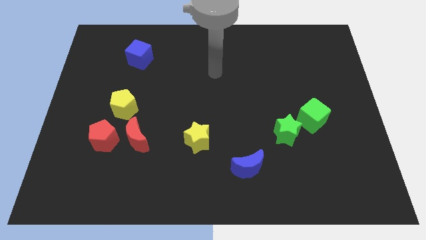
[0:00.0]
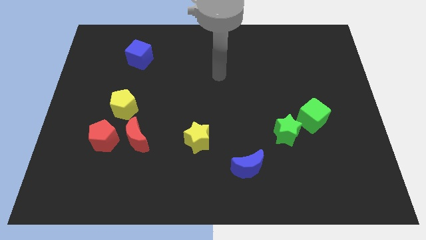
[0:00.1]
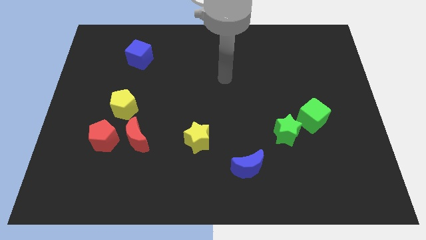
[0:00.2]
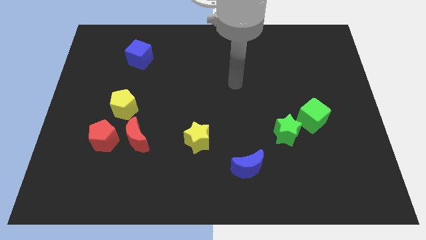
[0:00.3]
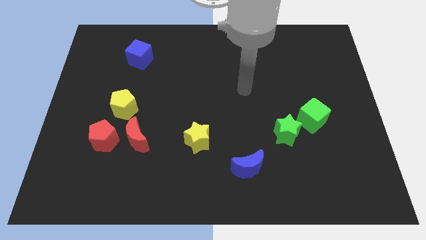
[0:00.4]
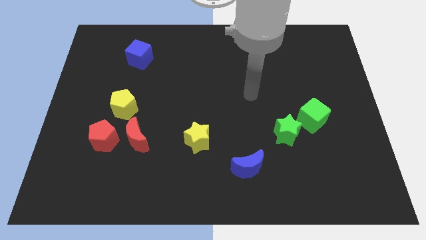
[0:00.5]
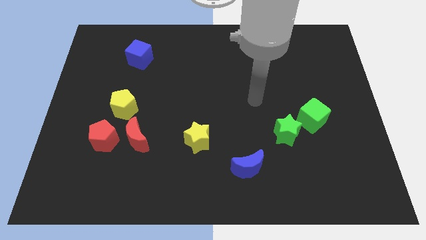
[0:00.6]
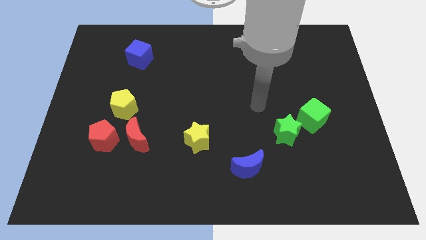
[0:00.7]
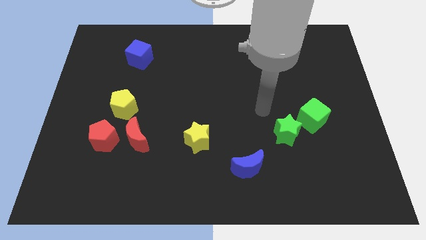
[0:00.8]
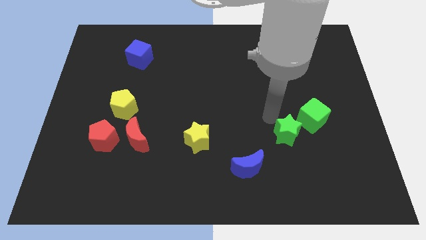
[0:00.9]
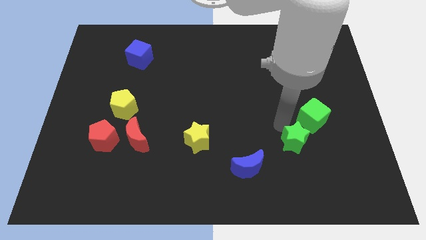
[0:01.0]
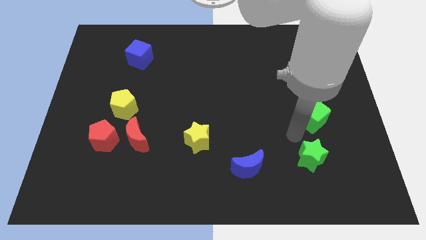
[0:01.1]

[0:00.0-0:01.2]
pull the green cube apart from the green star

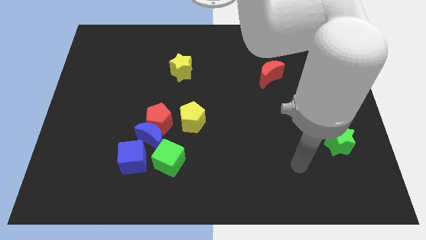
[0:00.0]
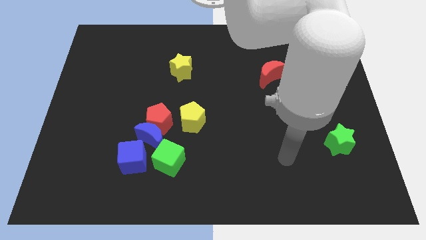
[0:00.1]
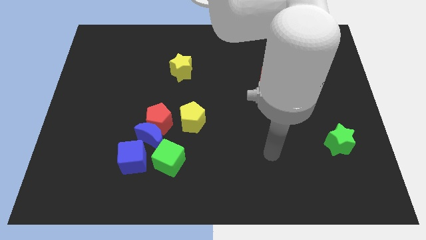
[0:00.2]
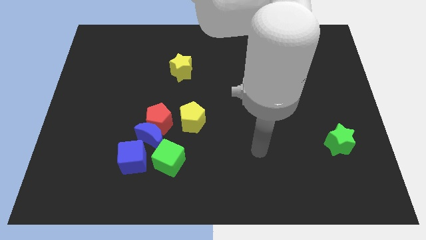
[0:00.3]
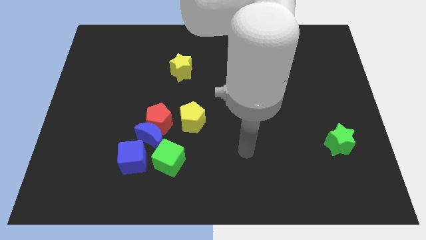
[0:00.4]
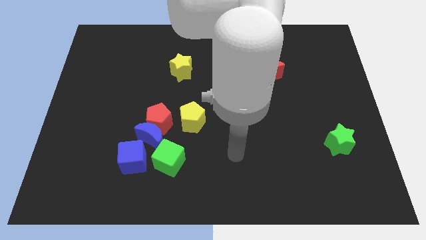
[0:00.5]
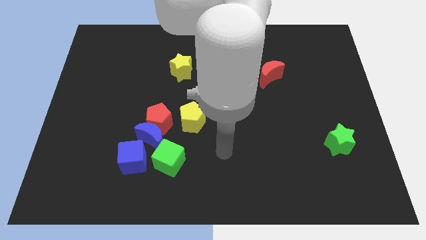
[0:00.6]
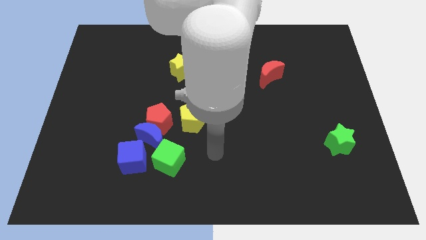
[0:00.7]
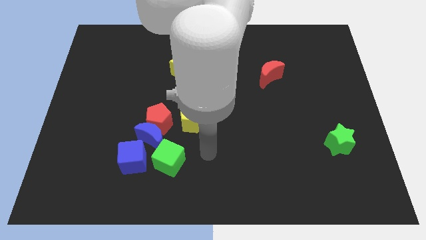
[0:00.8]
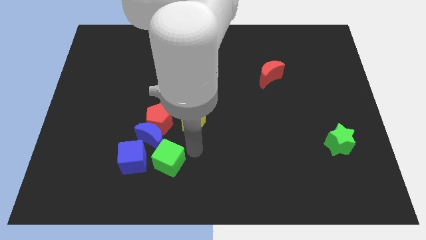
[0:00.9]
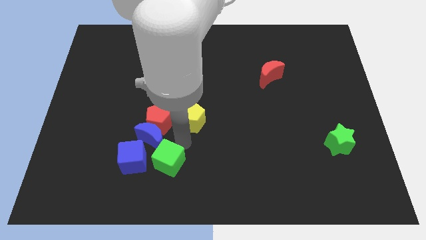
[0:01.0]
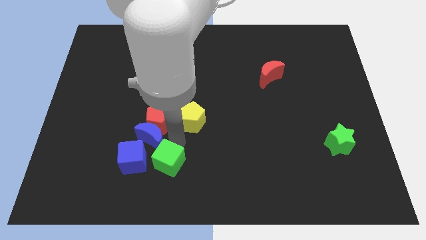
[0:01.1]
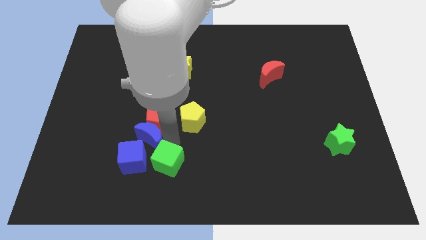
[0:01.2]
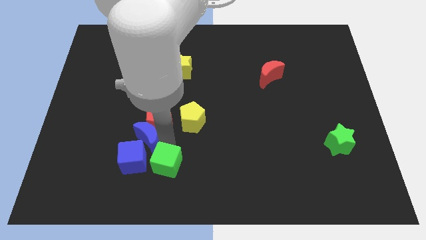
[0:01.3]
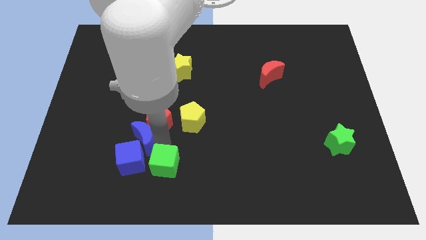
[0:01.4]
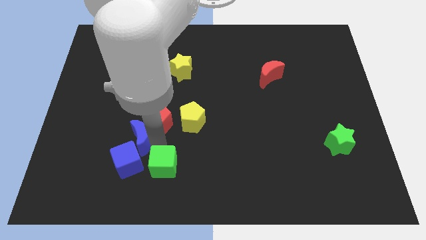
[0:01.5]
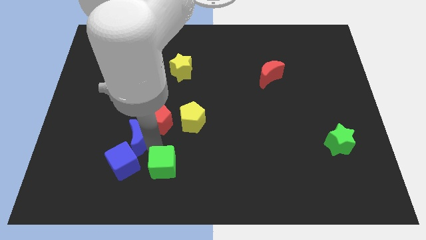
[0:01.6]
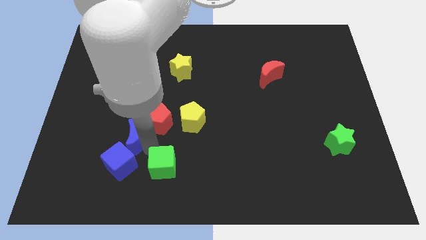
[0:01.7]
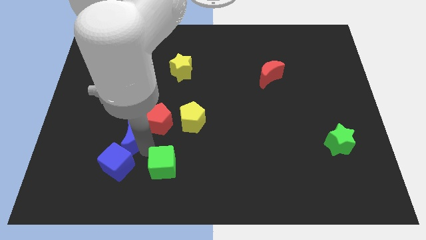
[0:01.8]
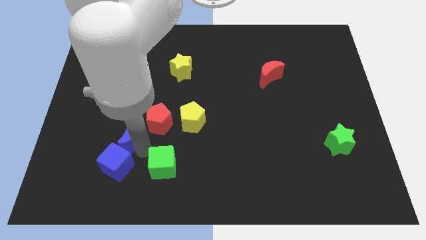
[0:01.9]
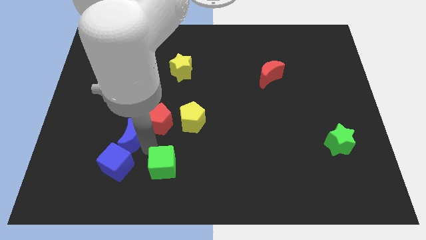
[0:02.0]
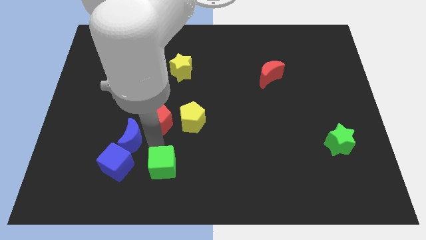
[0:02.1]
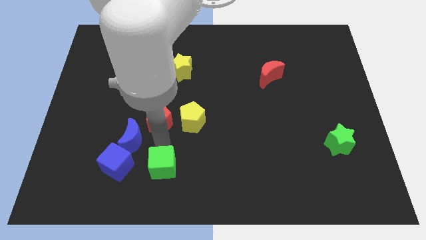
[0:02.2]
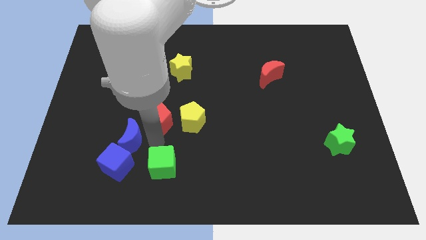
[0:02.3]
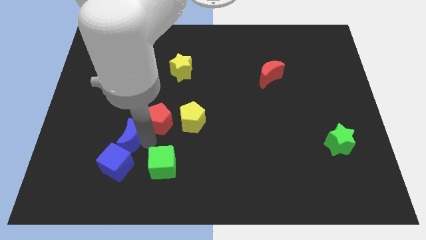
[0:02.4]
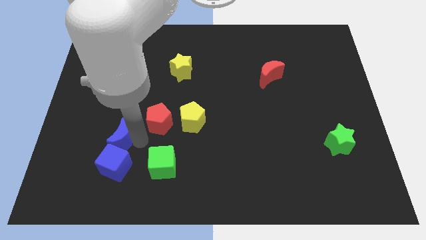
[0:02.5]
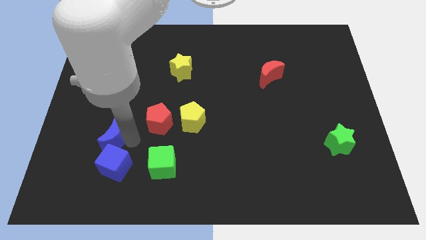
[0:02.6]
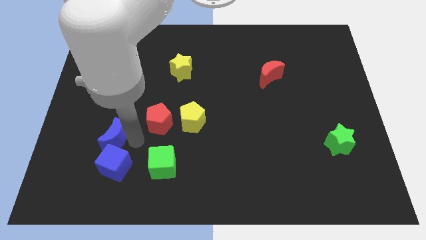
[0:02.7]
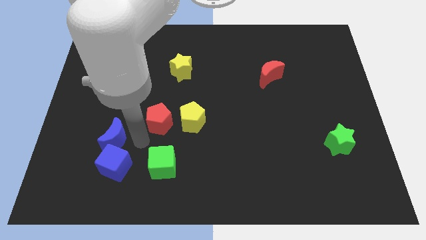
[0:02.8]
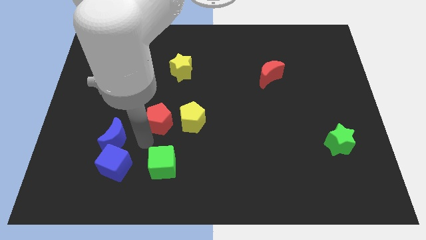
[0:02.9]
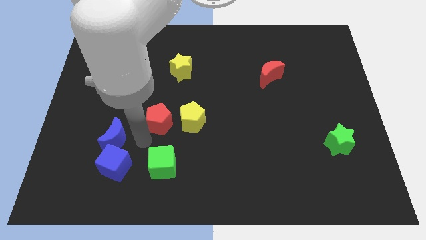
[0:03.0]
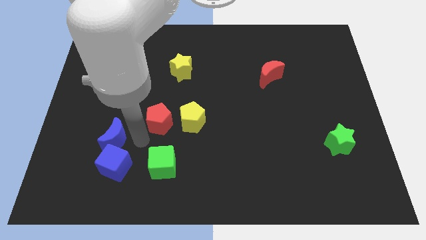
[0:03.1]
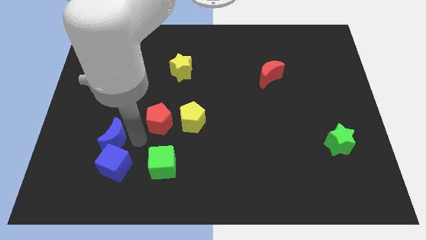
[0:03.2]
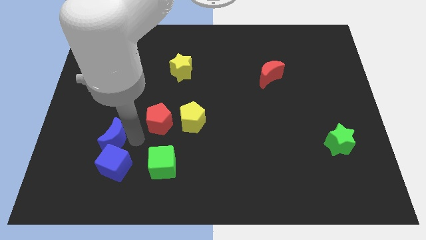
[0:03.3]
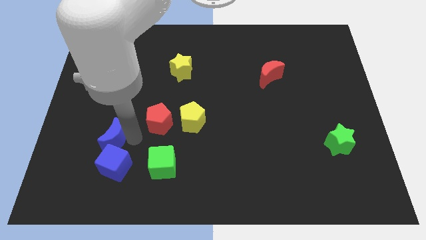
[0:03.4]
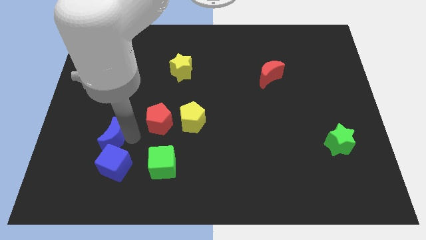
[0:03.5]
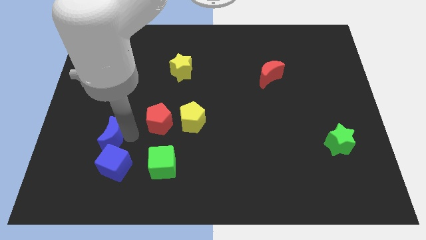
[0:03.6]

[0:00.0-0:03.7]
separate the blue moon from the clump

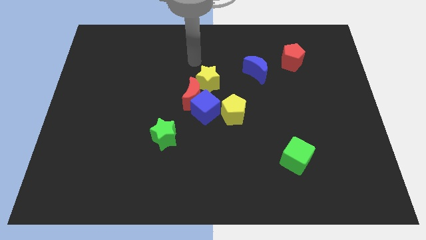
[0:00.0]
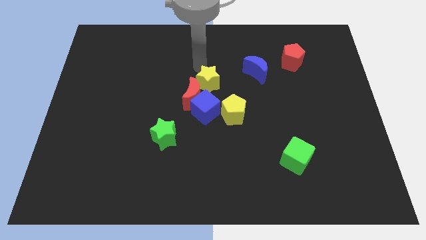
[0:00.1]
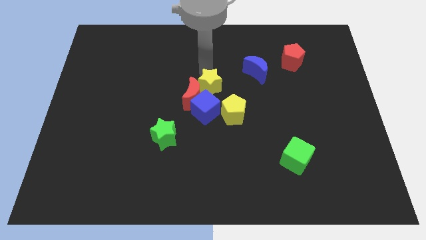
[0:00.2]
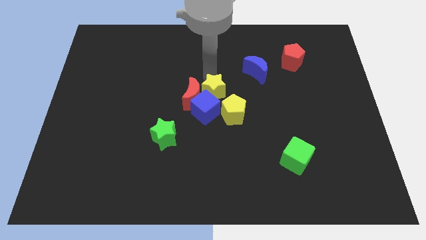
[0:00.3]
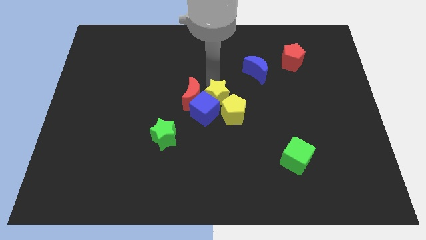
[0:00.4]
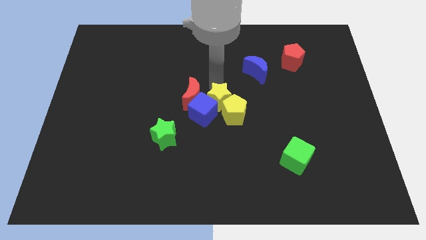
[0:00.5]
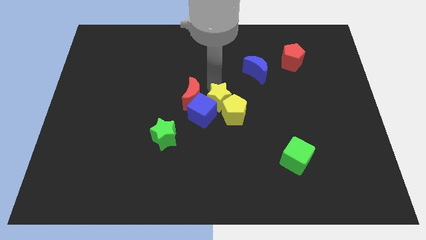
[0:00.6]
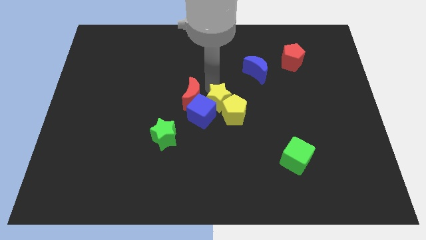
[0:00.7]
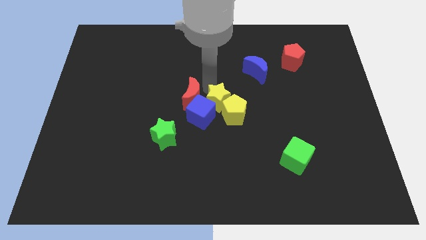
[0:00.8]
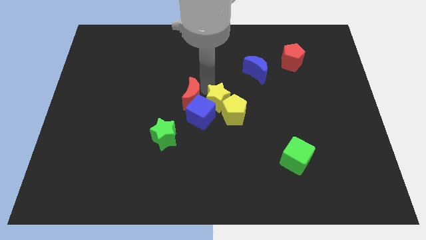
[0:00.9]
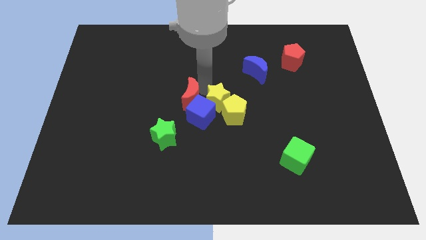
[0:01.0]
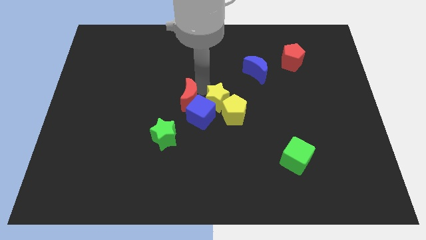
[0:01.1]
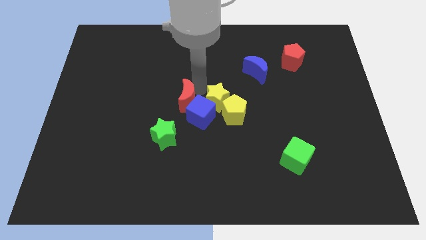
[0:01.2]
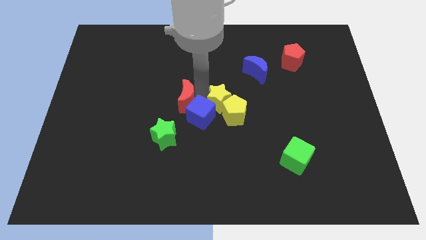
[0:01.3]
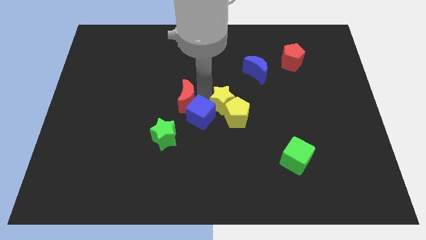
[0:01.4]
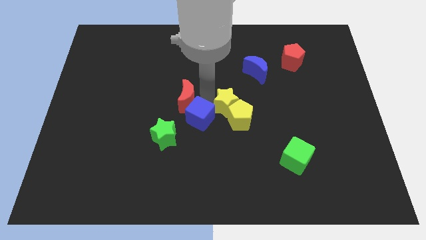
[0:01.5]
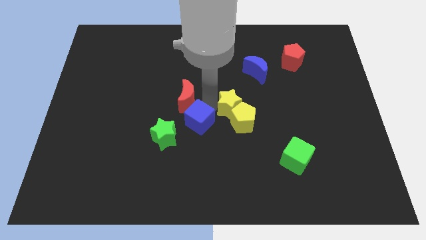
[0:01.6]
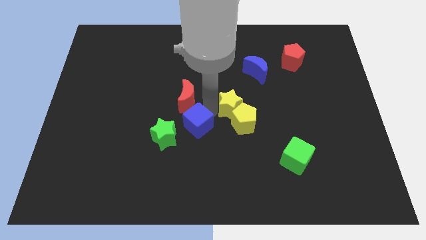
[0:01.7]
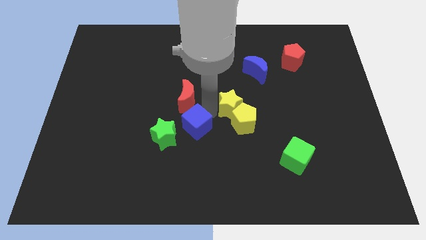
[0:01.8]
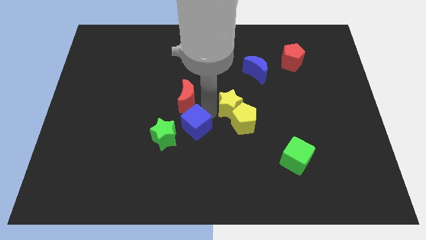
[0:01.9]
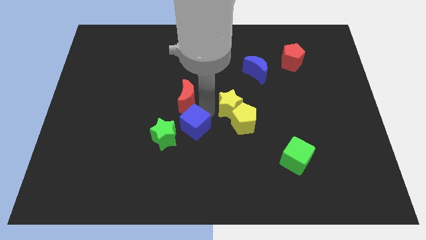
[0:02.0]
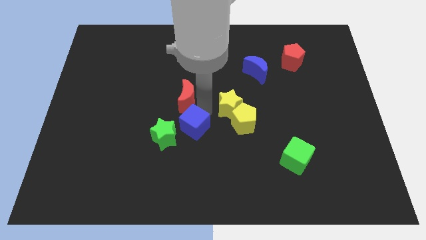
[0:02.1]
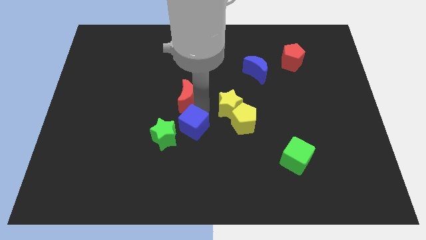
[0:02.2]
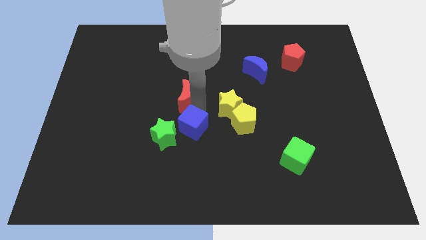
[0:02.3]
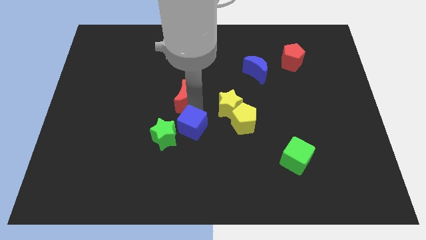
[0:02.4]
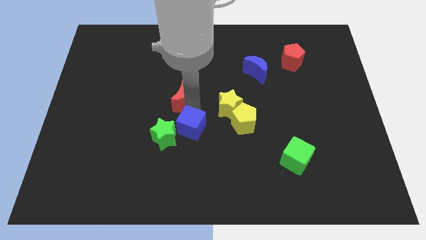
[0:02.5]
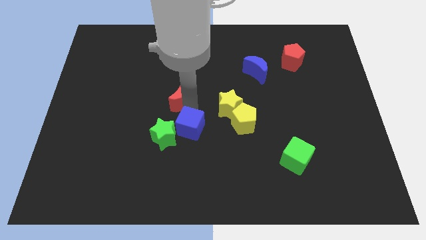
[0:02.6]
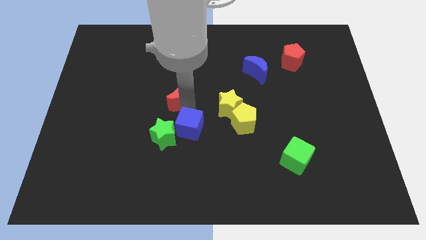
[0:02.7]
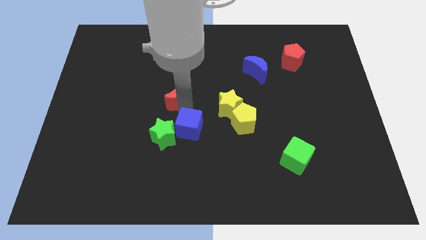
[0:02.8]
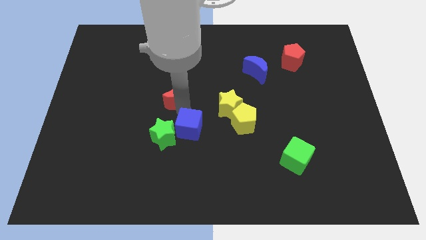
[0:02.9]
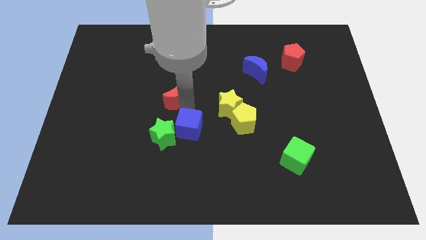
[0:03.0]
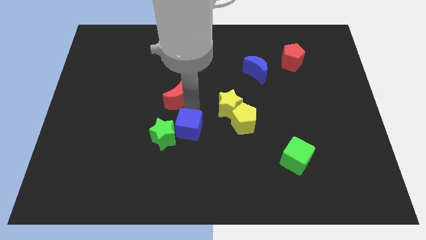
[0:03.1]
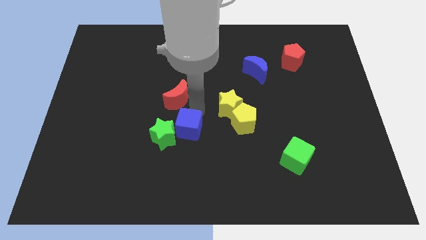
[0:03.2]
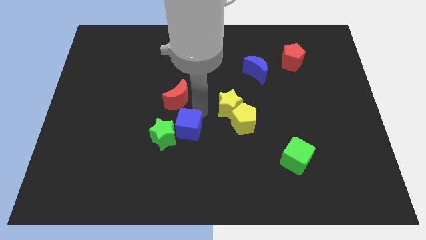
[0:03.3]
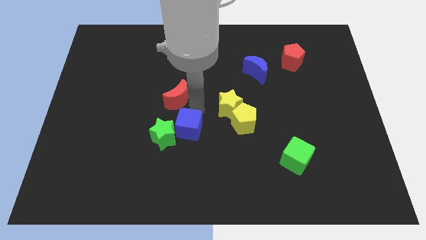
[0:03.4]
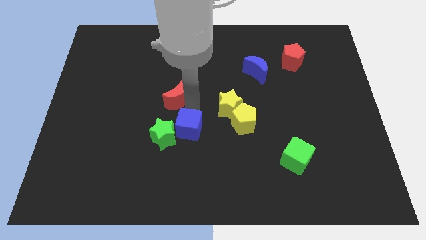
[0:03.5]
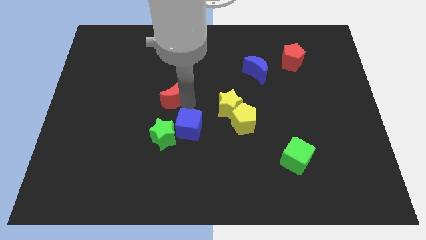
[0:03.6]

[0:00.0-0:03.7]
pull the red moon apart from the blue cube and yellow star

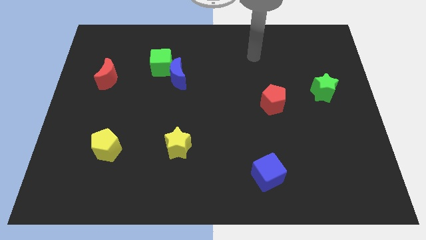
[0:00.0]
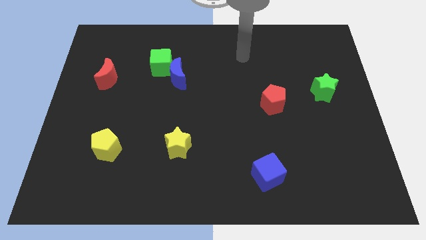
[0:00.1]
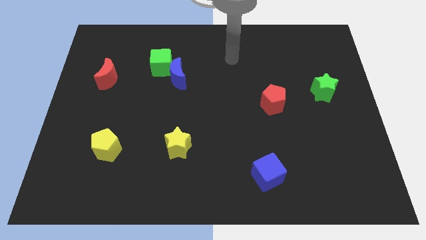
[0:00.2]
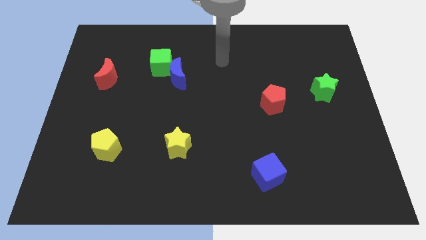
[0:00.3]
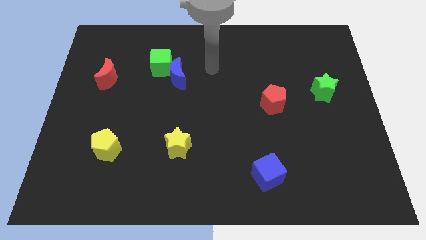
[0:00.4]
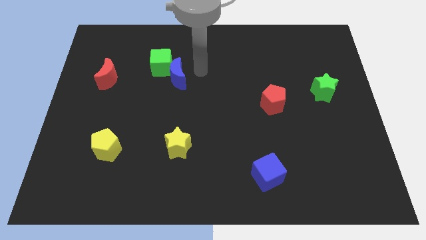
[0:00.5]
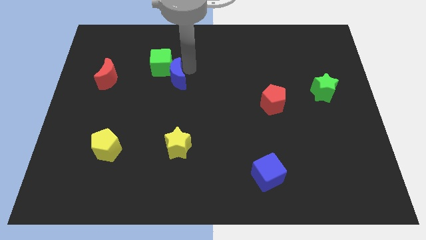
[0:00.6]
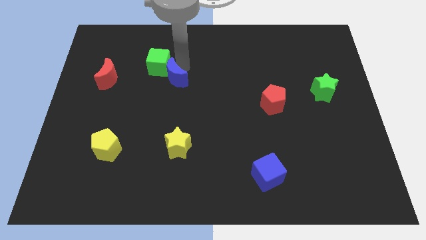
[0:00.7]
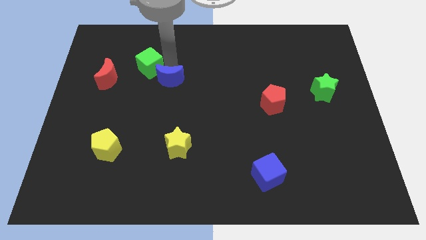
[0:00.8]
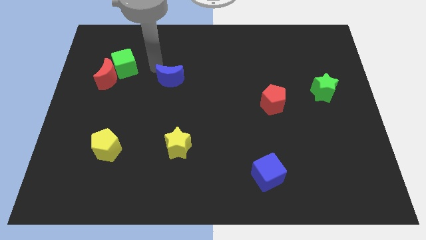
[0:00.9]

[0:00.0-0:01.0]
pull the blue moon apart from the green cube
